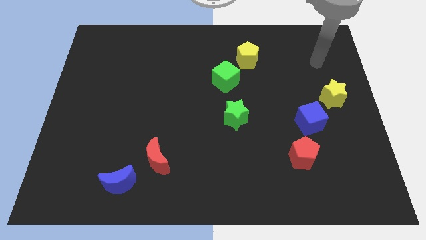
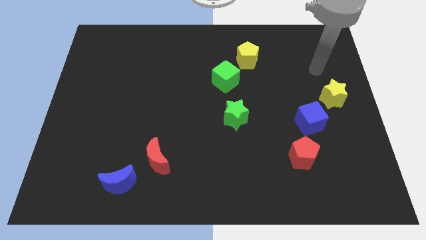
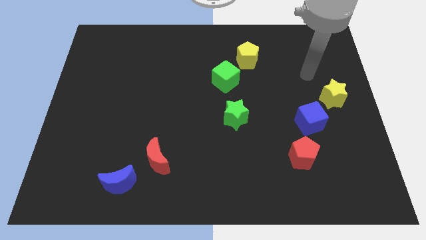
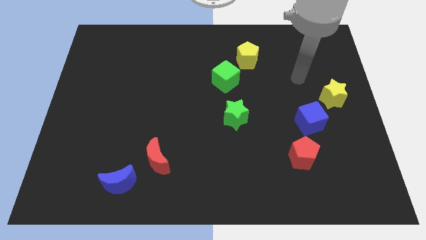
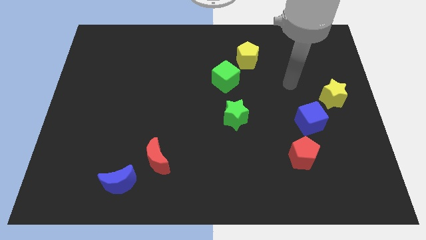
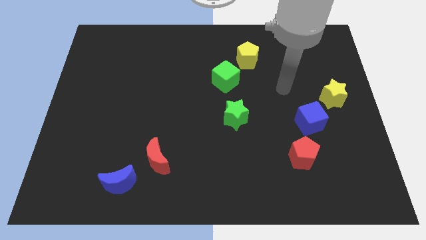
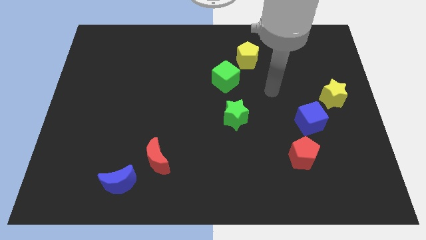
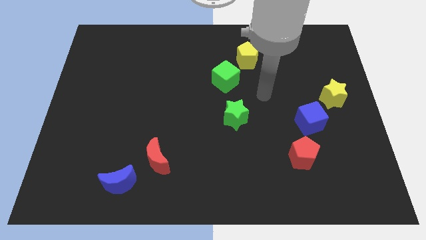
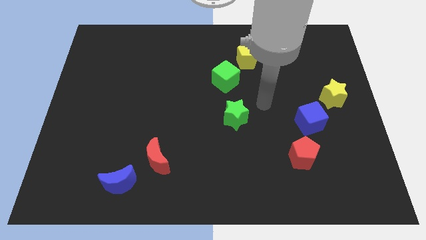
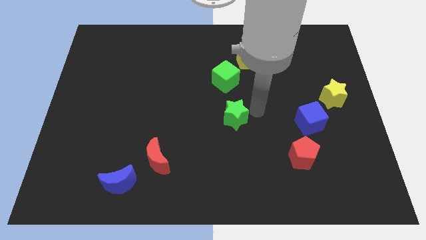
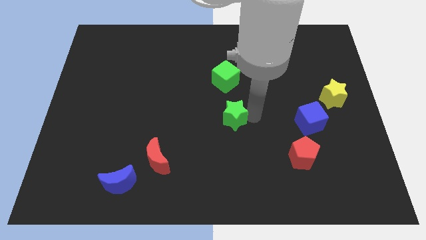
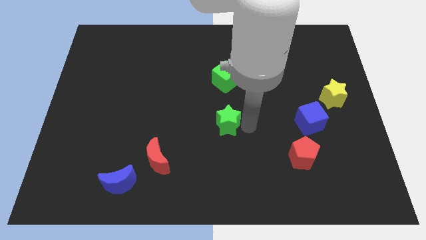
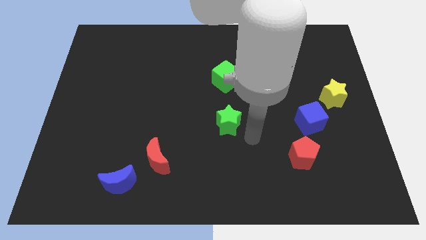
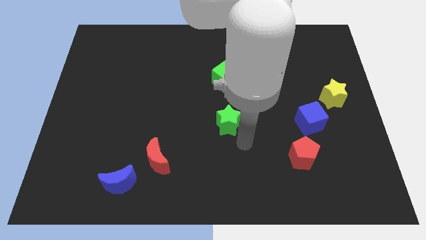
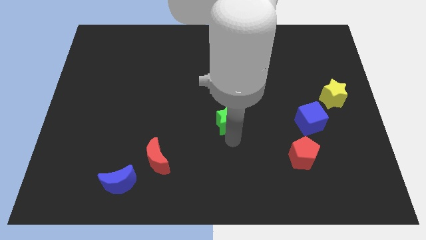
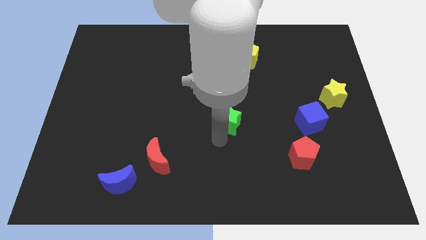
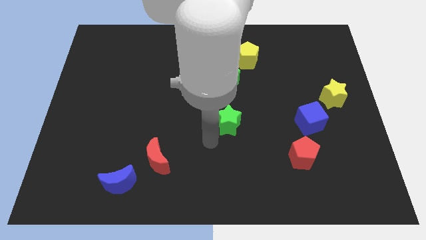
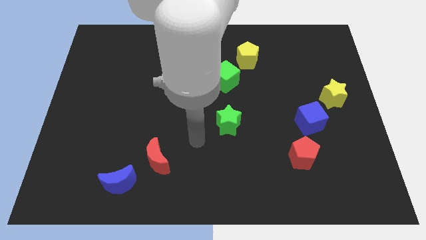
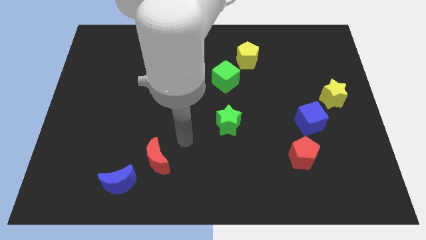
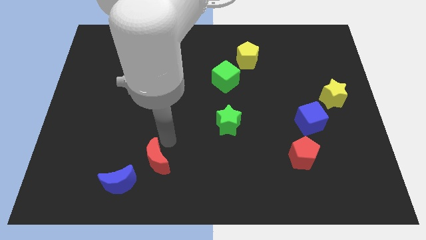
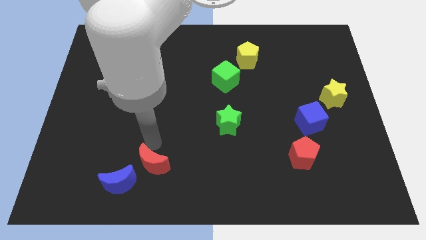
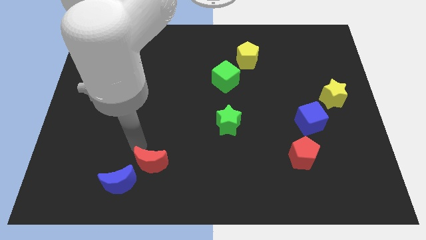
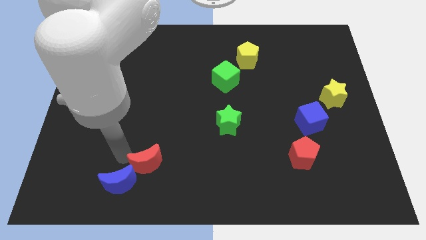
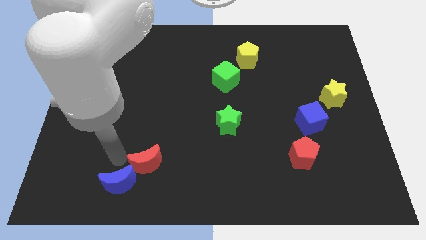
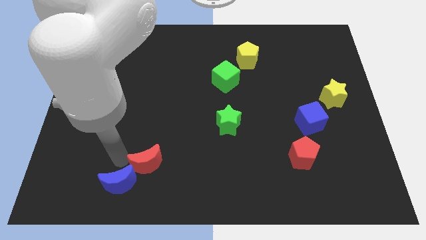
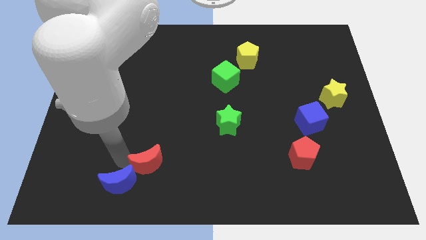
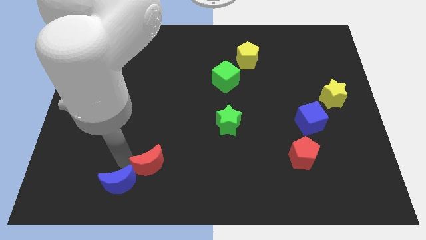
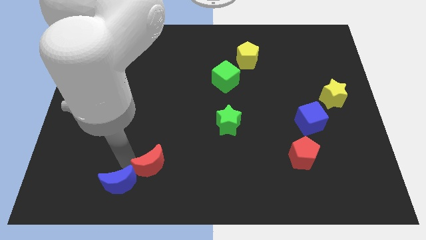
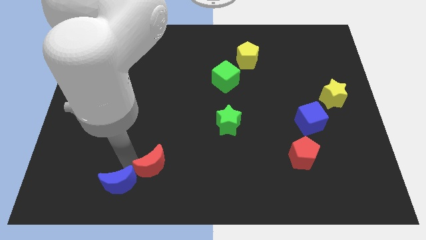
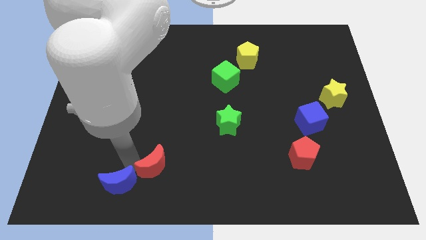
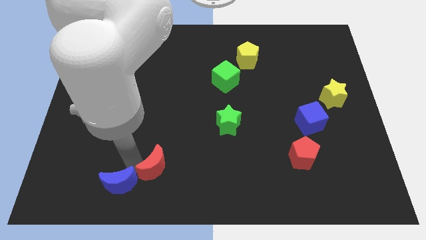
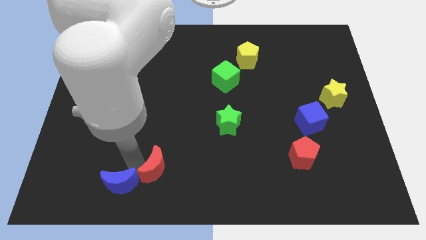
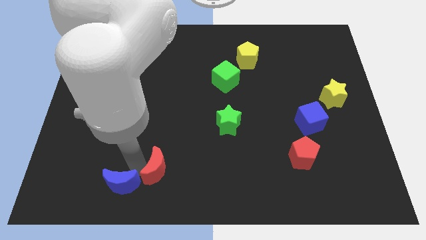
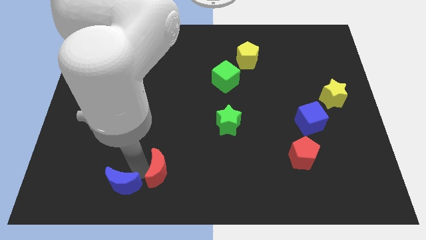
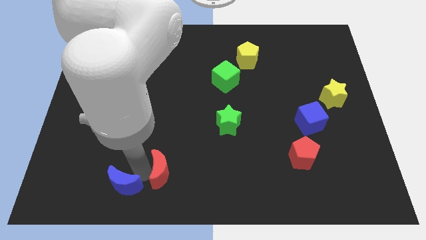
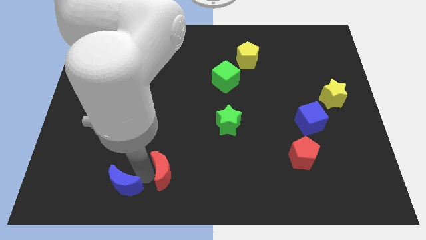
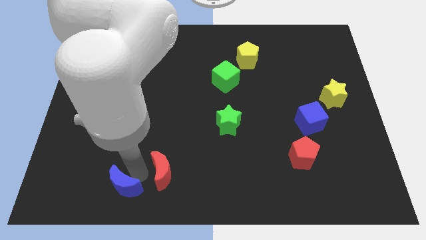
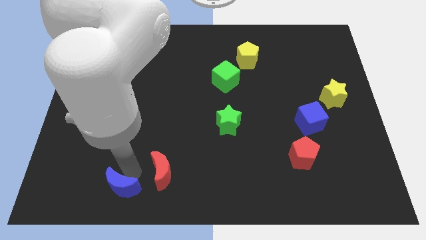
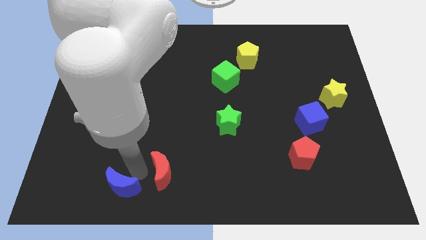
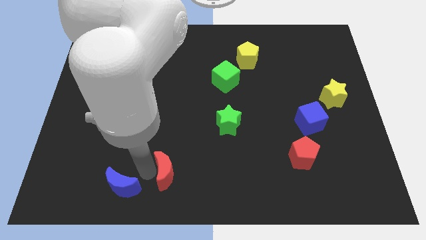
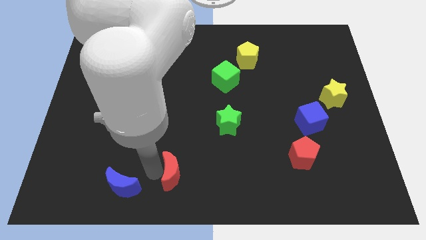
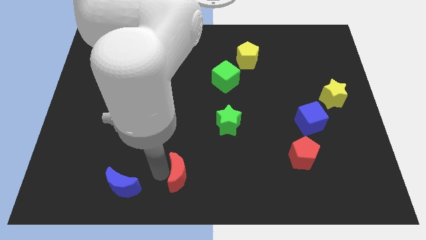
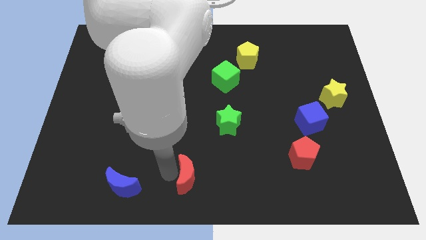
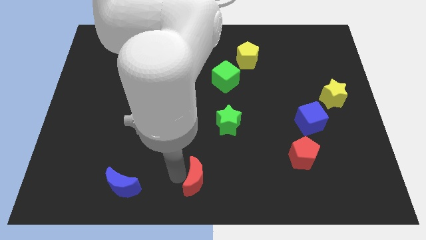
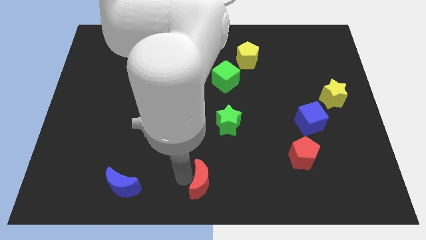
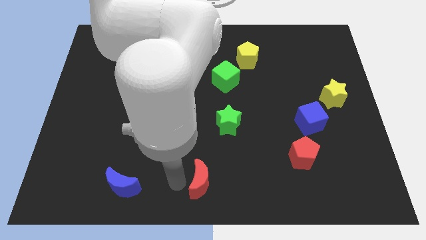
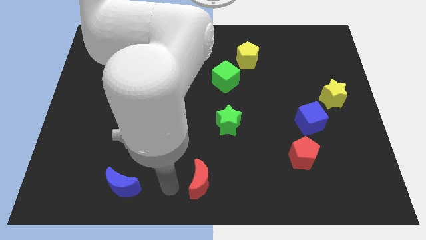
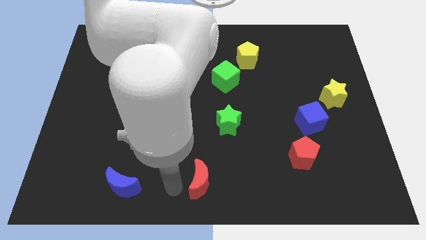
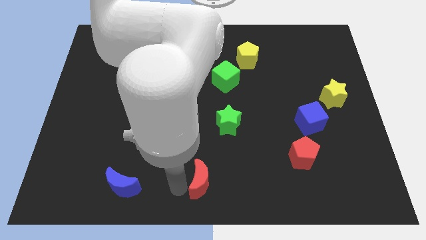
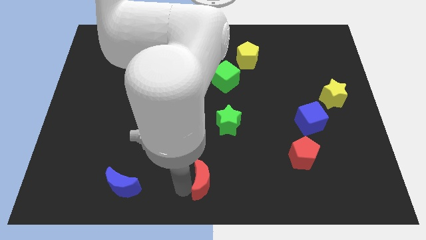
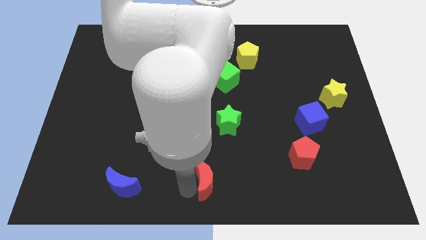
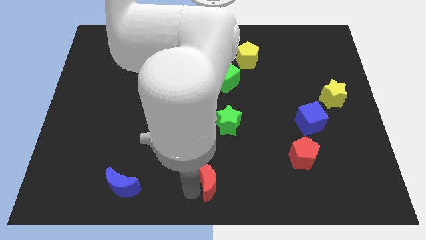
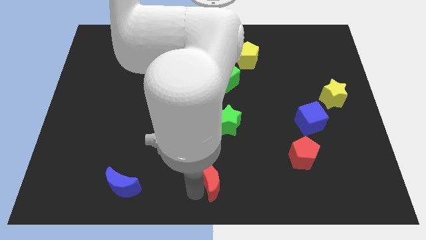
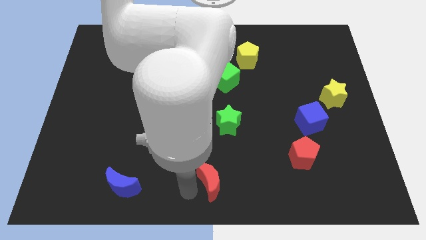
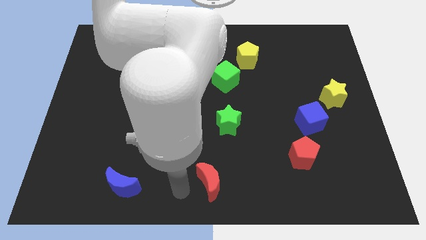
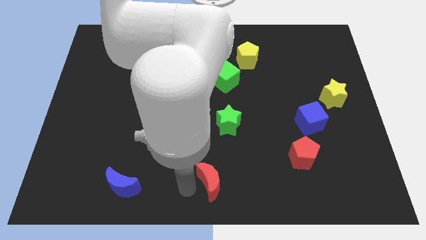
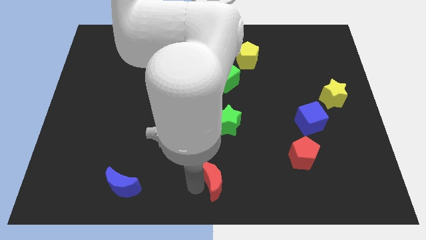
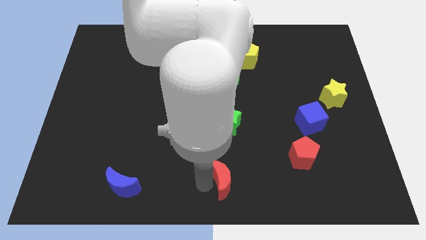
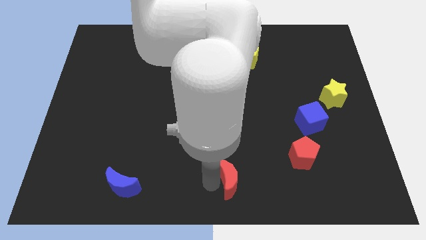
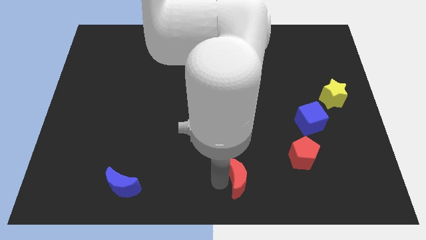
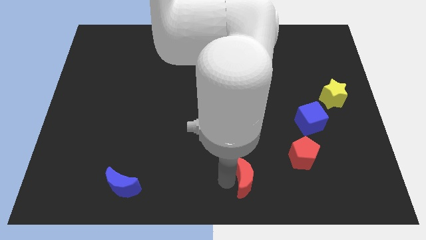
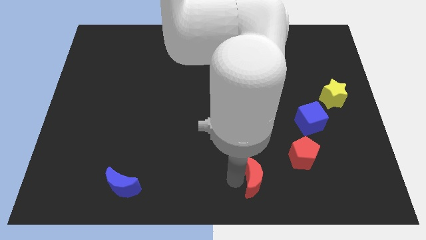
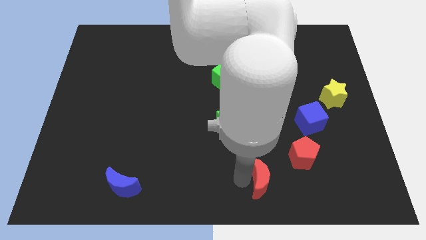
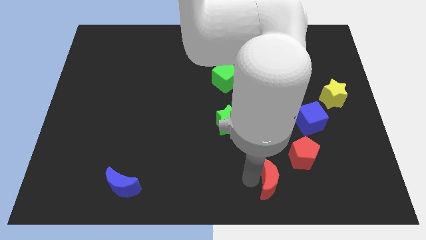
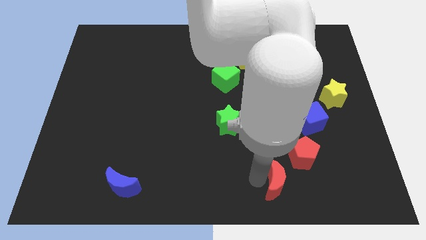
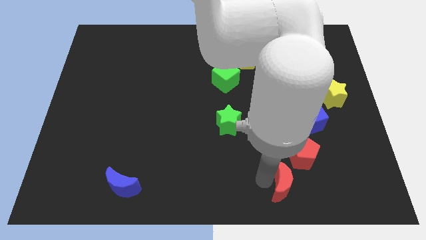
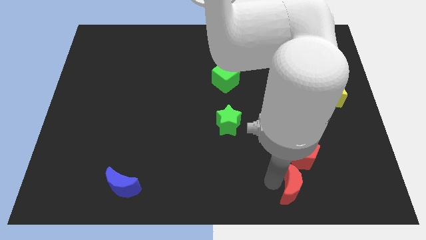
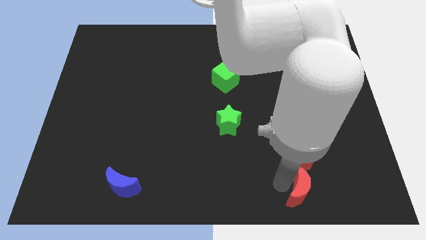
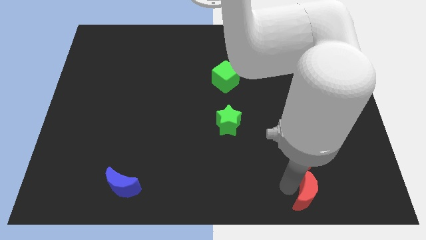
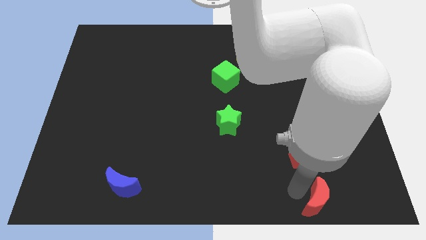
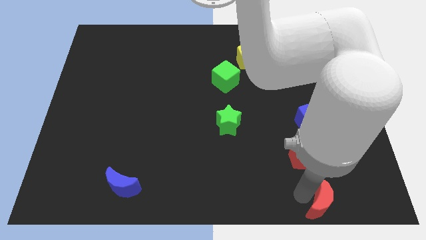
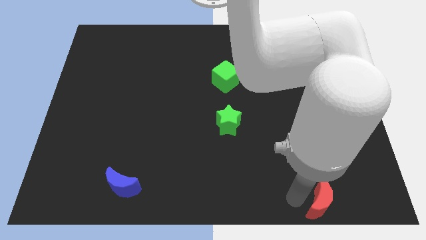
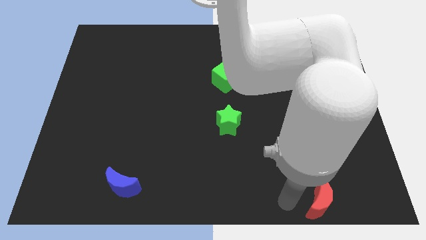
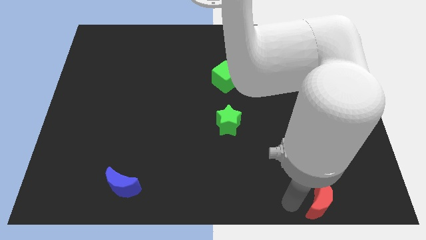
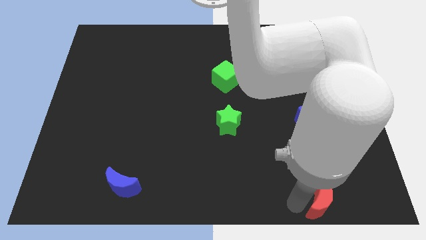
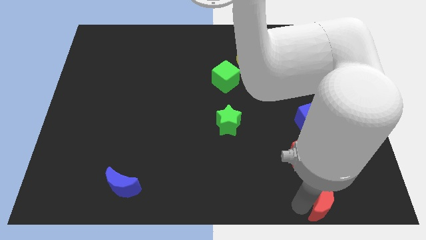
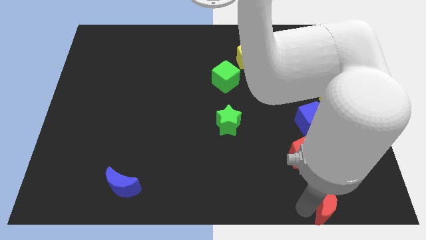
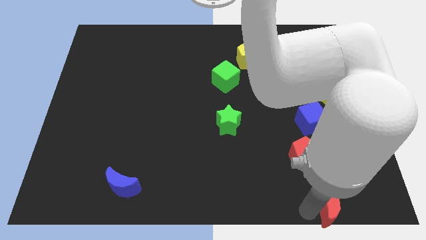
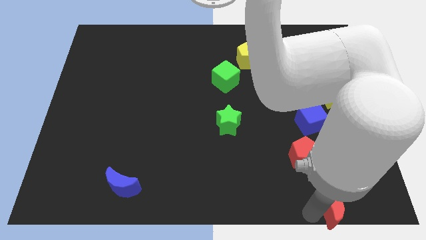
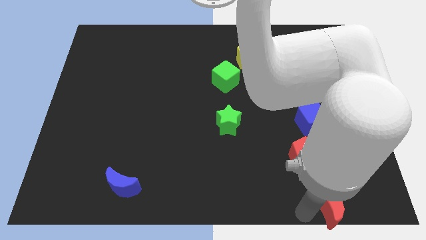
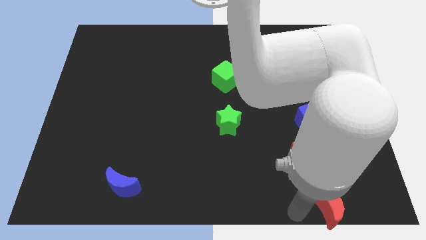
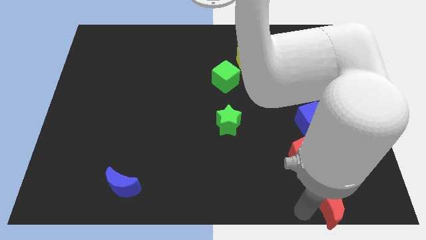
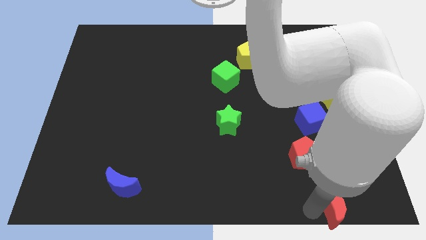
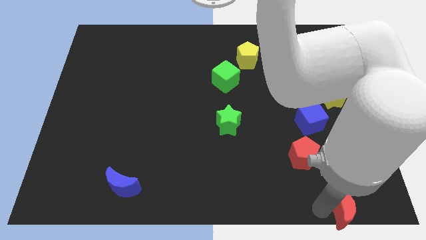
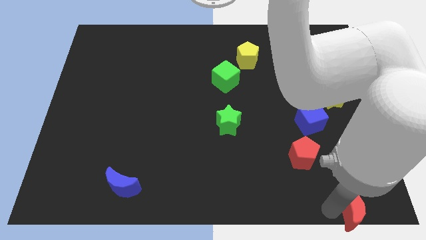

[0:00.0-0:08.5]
slide the red moon to the bottom right
